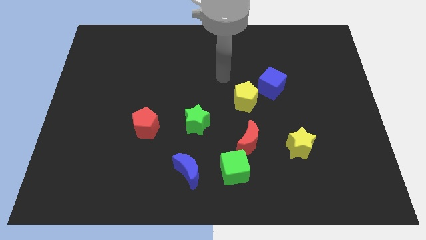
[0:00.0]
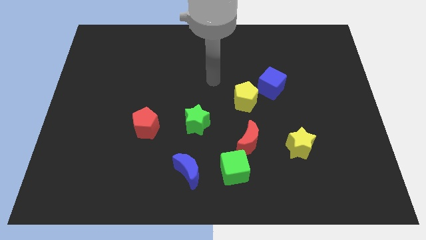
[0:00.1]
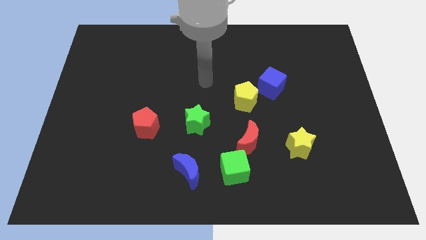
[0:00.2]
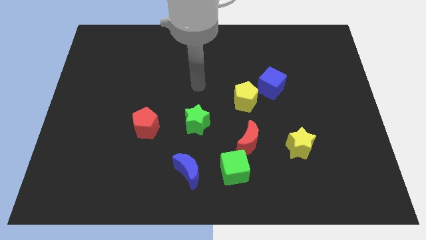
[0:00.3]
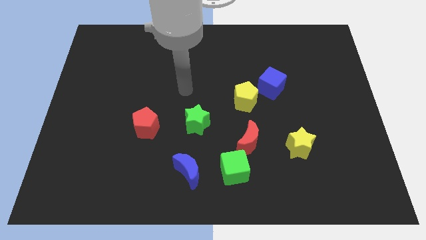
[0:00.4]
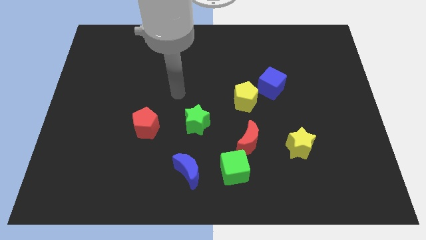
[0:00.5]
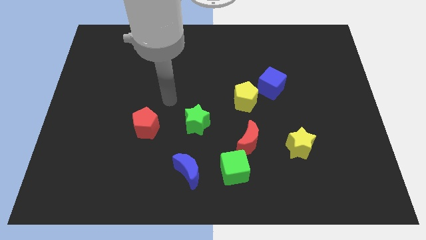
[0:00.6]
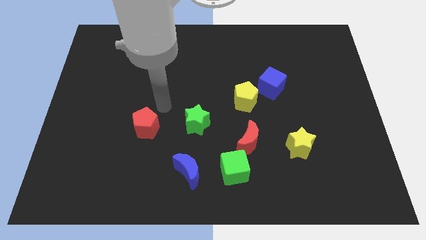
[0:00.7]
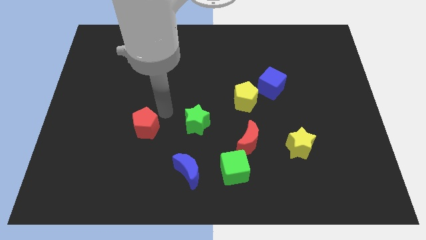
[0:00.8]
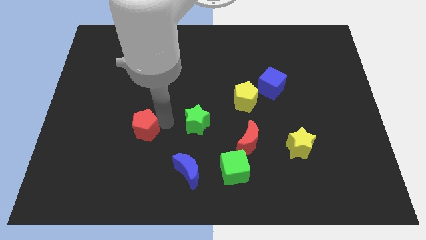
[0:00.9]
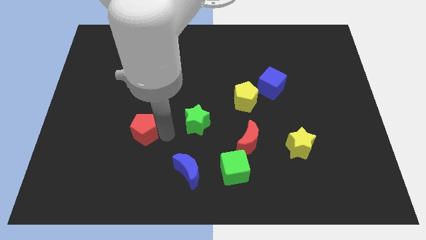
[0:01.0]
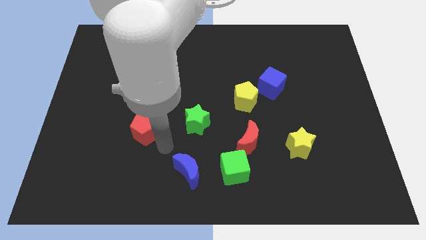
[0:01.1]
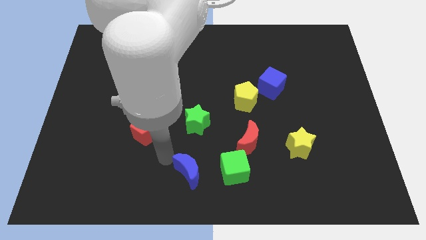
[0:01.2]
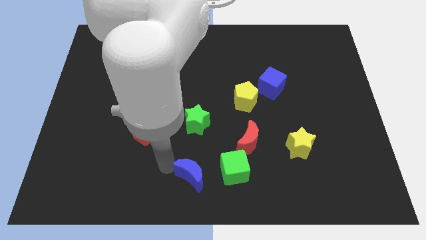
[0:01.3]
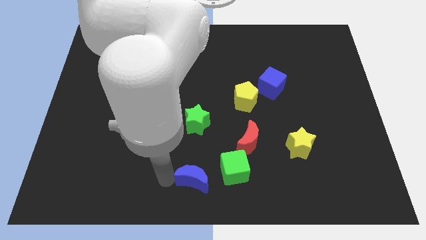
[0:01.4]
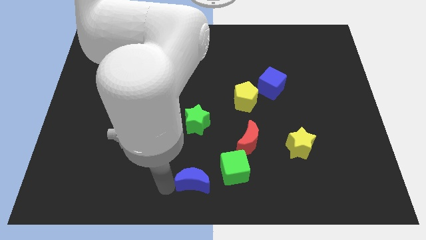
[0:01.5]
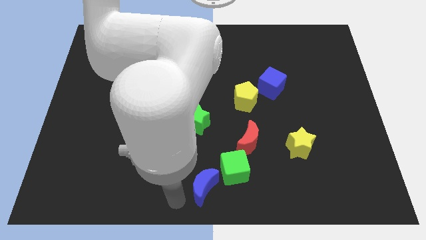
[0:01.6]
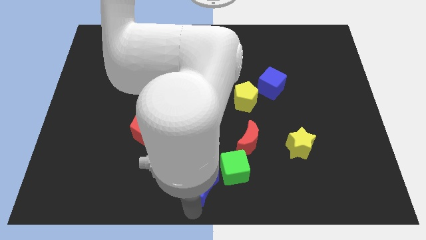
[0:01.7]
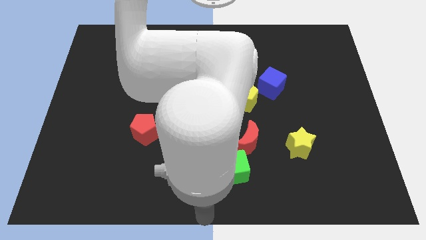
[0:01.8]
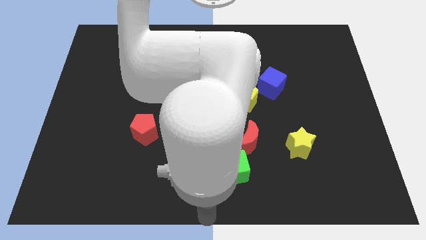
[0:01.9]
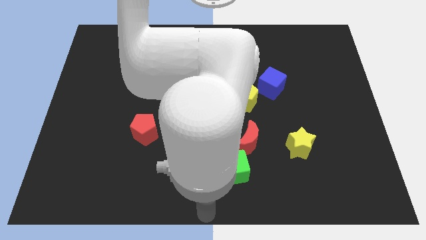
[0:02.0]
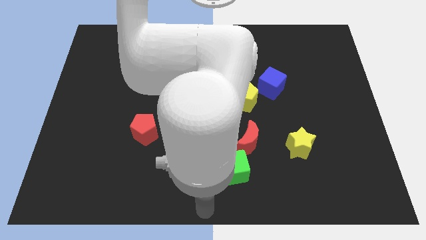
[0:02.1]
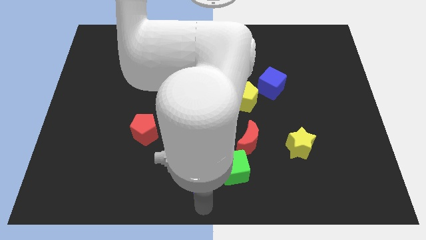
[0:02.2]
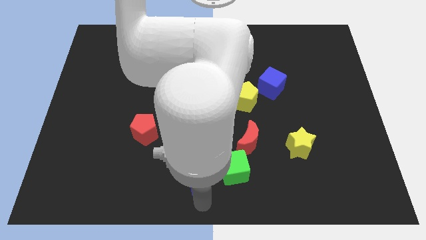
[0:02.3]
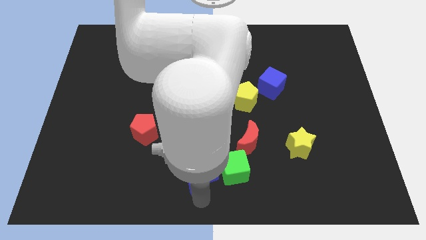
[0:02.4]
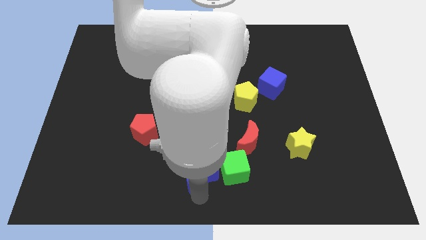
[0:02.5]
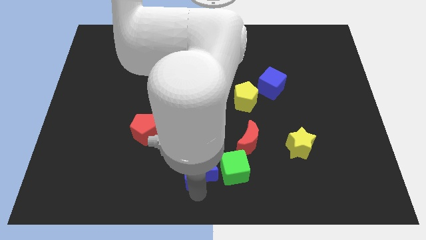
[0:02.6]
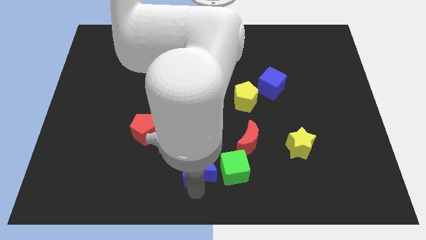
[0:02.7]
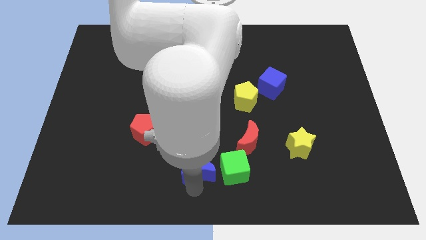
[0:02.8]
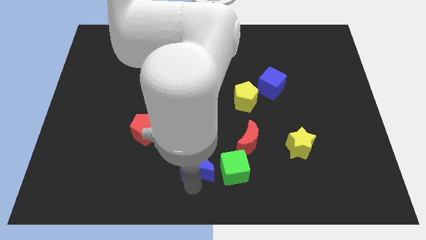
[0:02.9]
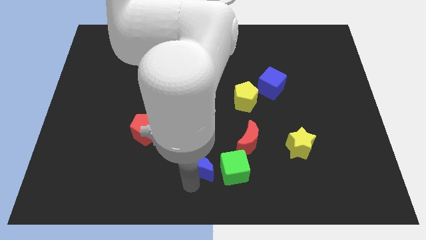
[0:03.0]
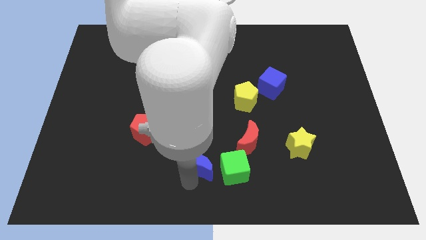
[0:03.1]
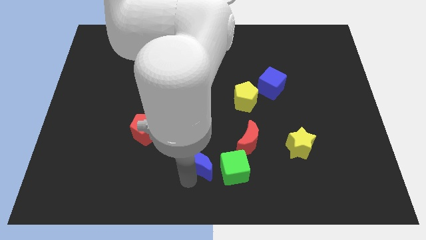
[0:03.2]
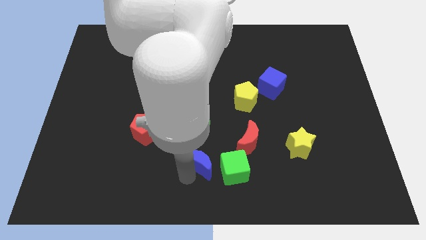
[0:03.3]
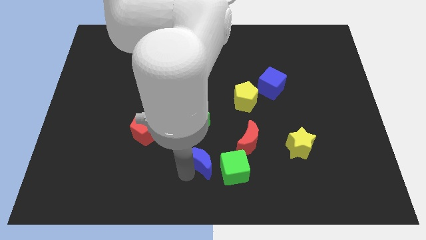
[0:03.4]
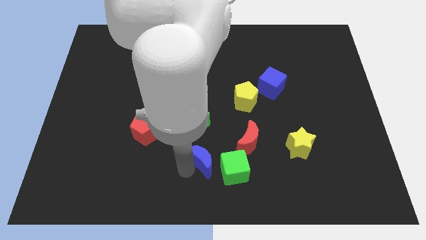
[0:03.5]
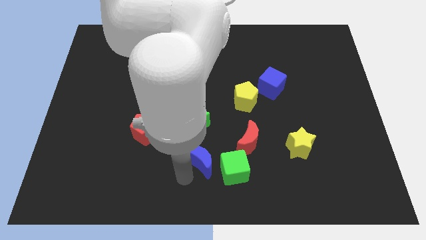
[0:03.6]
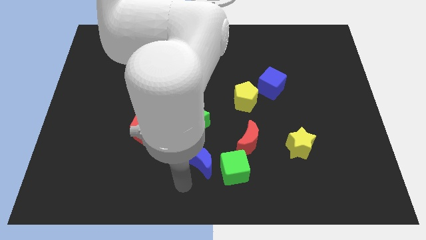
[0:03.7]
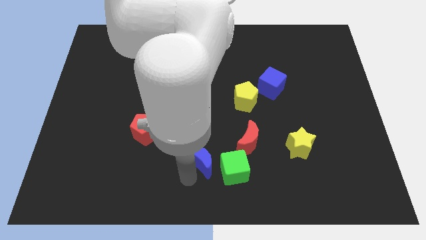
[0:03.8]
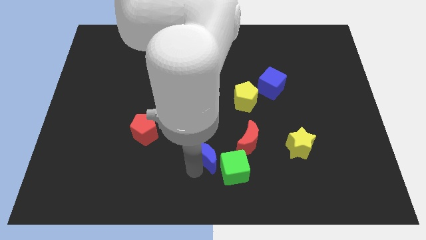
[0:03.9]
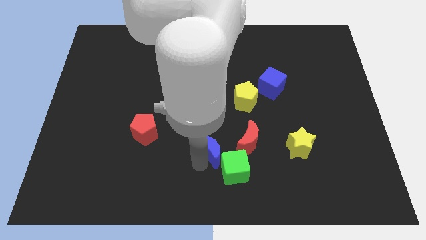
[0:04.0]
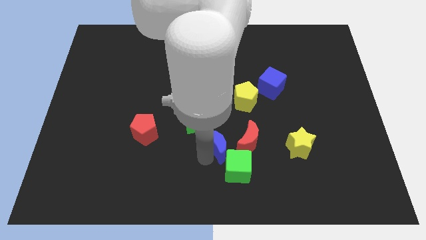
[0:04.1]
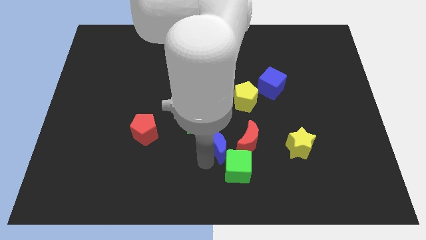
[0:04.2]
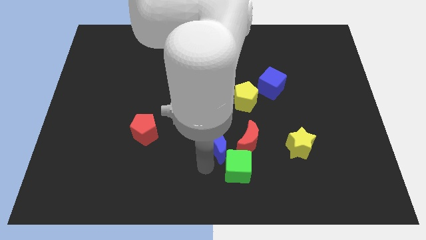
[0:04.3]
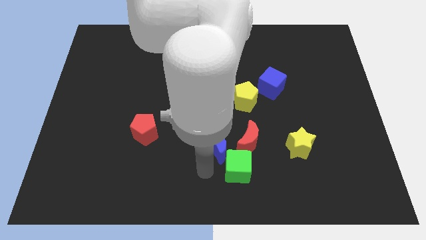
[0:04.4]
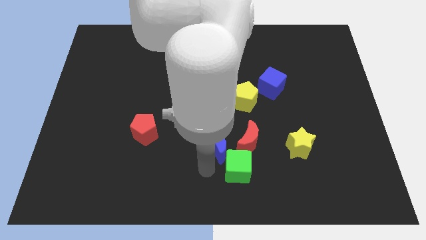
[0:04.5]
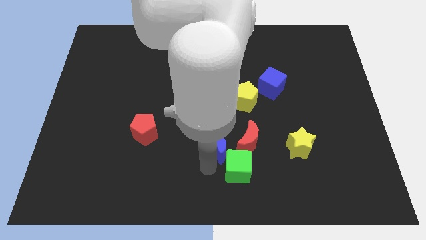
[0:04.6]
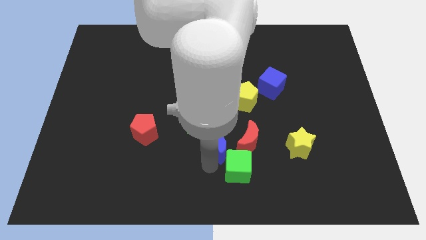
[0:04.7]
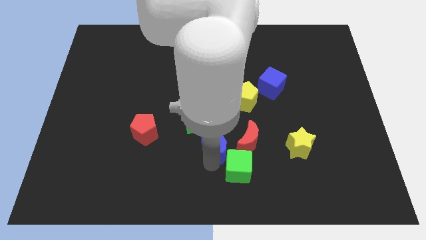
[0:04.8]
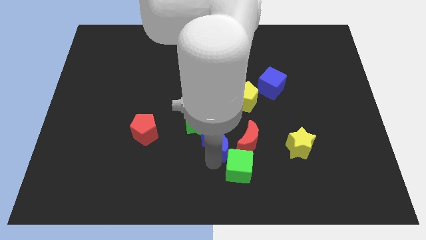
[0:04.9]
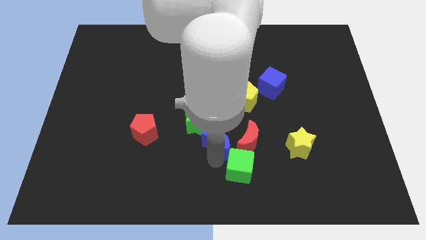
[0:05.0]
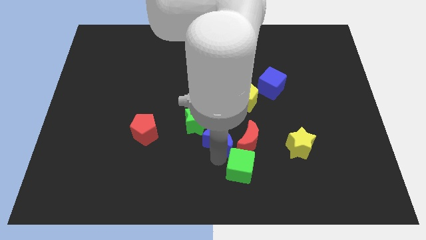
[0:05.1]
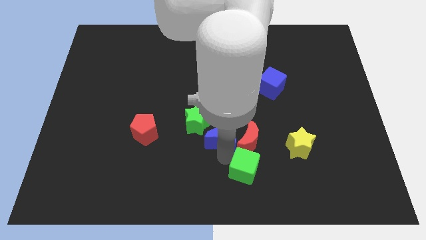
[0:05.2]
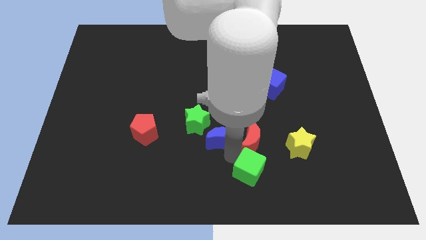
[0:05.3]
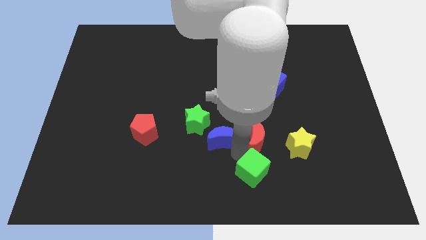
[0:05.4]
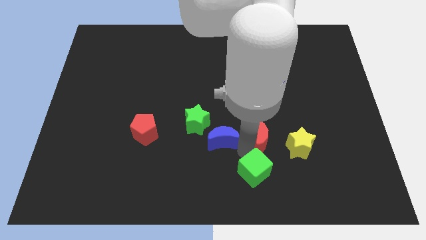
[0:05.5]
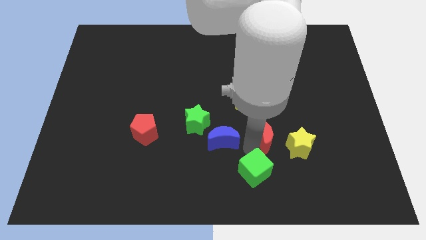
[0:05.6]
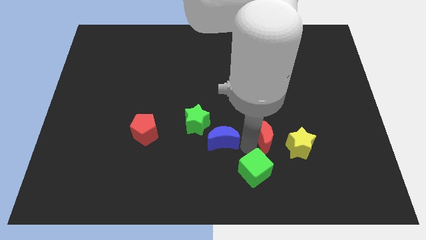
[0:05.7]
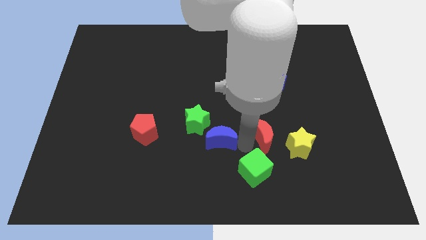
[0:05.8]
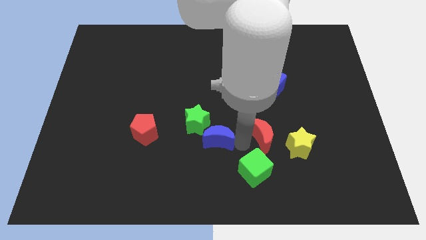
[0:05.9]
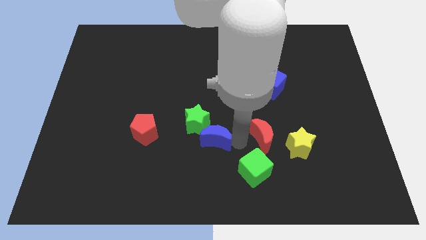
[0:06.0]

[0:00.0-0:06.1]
slide the blue moon right of the red pentagon

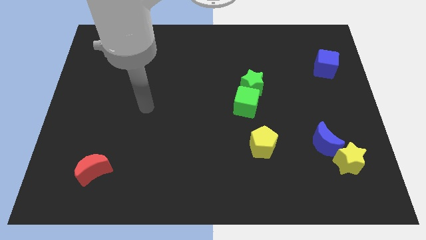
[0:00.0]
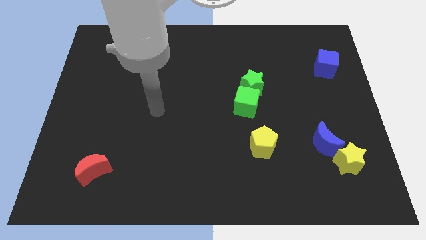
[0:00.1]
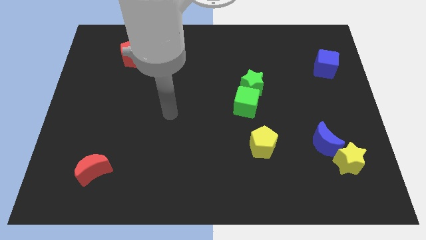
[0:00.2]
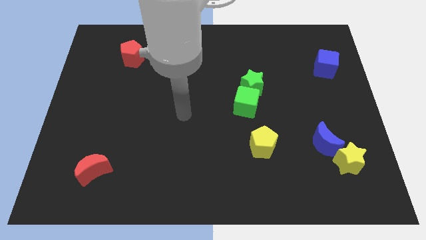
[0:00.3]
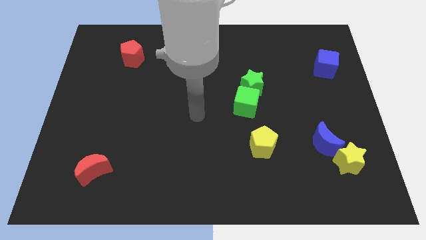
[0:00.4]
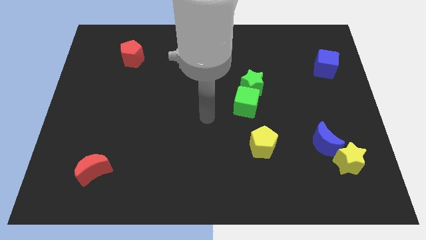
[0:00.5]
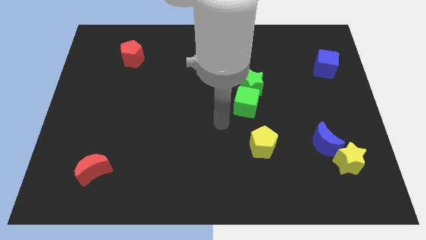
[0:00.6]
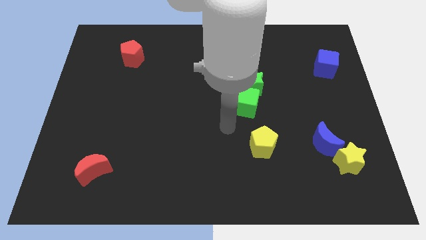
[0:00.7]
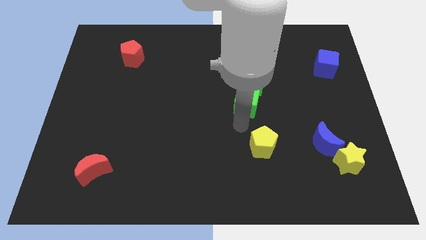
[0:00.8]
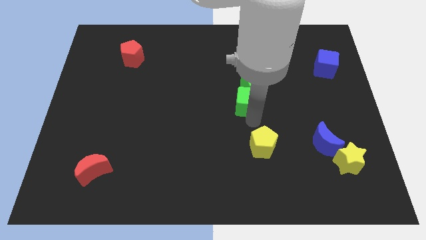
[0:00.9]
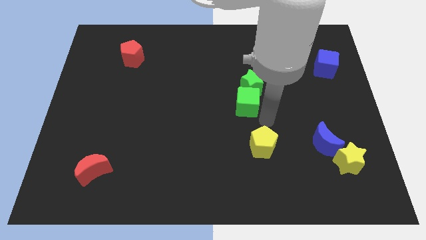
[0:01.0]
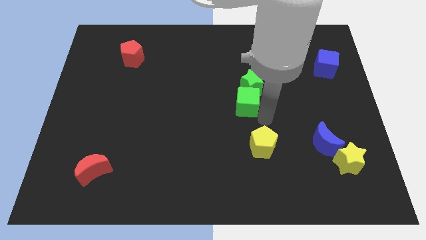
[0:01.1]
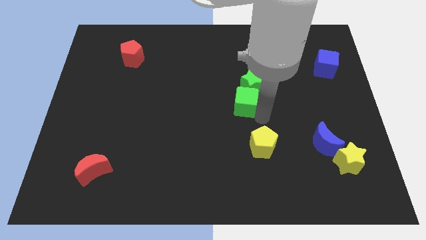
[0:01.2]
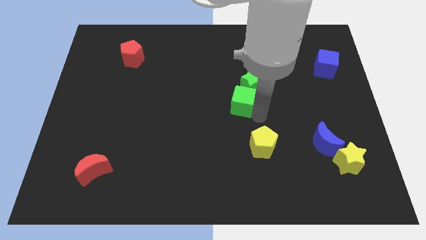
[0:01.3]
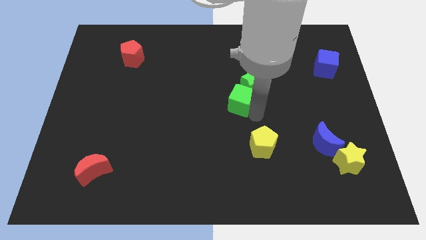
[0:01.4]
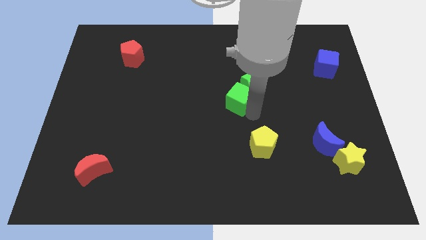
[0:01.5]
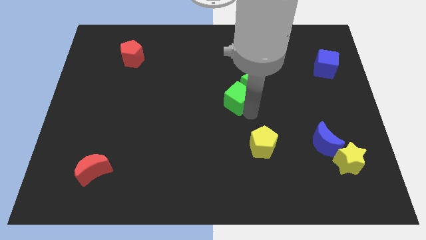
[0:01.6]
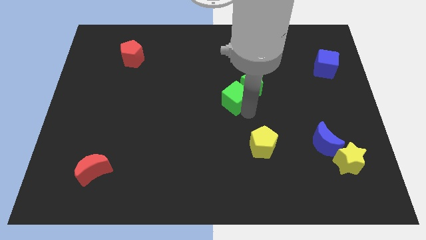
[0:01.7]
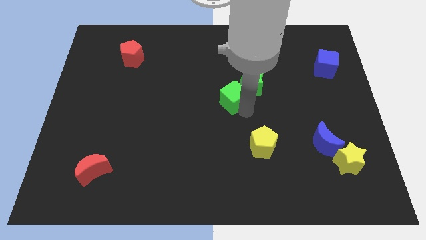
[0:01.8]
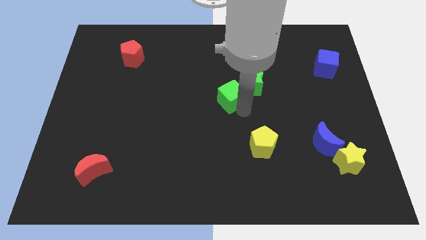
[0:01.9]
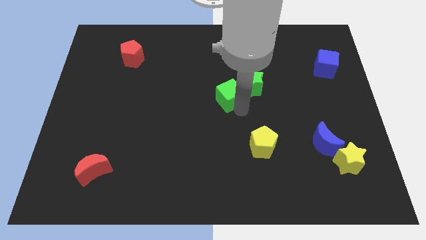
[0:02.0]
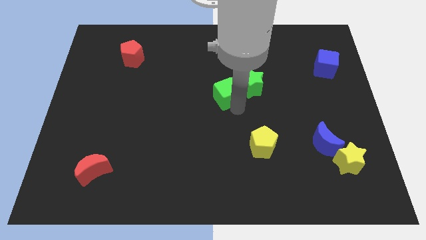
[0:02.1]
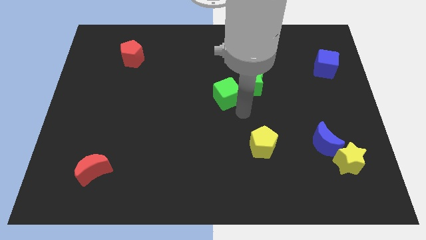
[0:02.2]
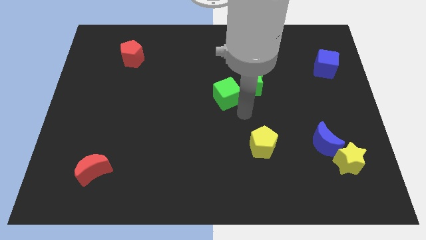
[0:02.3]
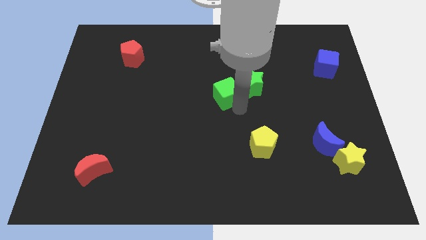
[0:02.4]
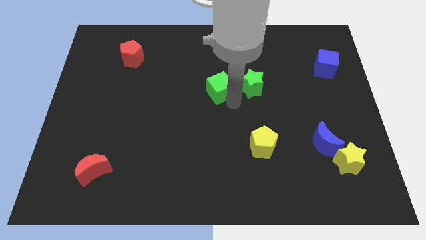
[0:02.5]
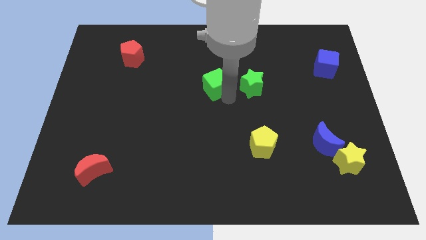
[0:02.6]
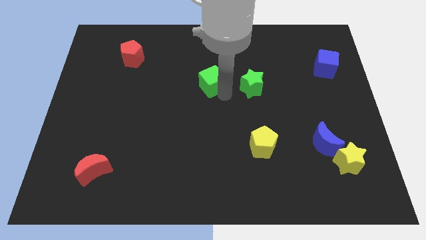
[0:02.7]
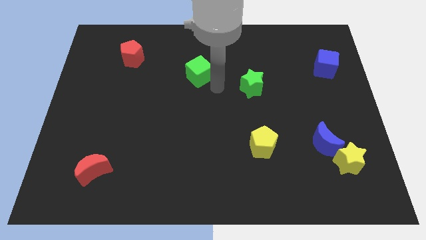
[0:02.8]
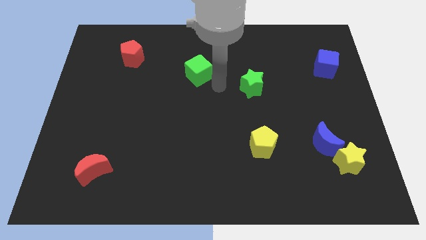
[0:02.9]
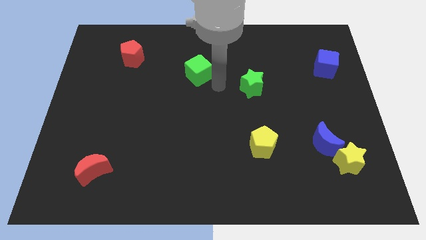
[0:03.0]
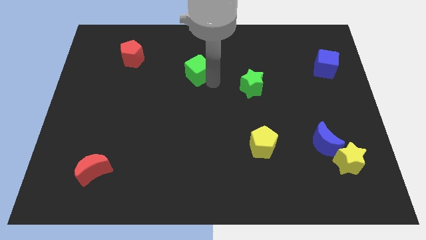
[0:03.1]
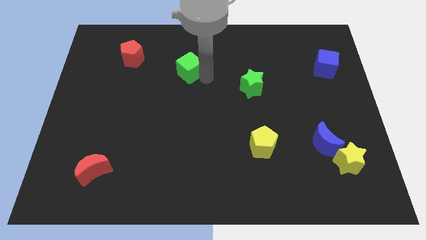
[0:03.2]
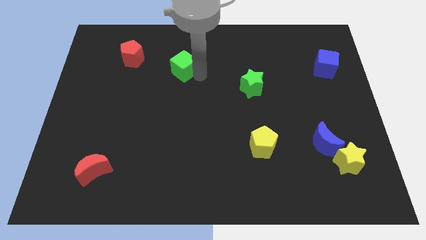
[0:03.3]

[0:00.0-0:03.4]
move the green cube right of the red pentagon
